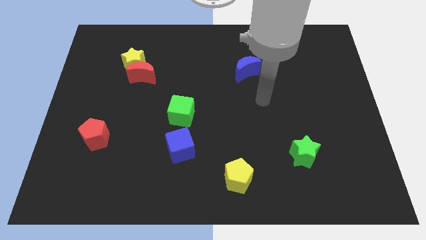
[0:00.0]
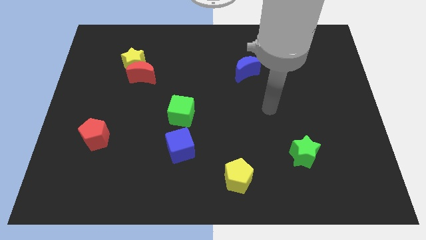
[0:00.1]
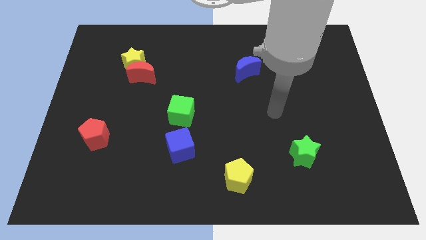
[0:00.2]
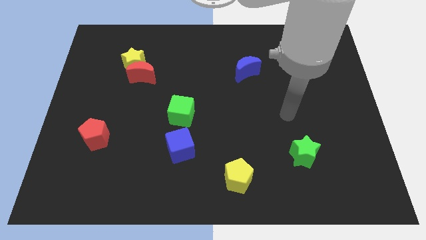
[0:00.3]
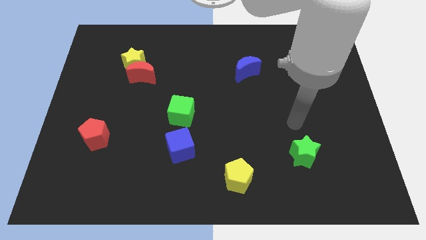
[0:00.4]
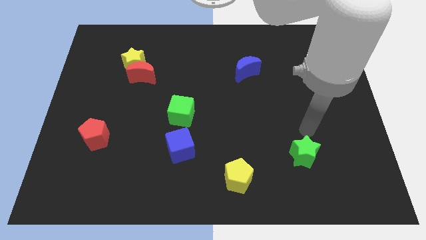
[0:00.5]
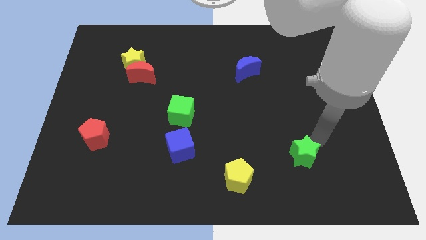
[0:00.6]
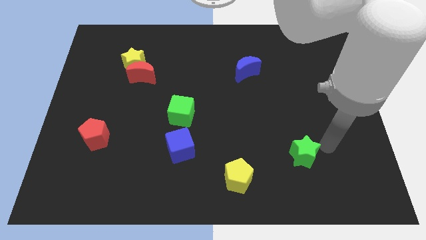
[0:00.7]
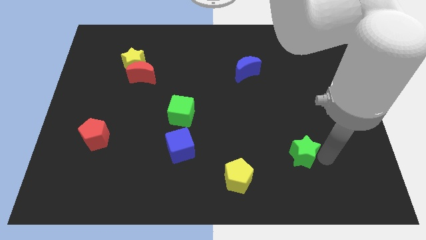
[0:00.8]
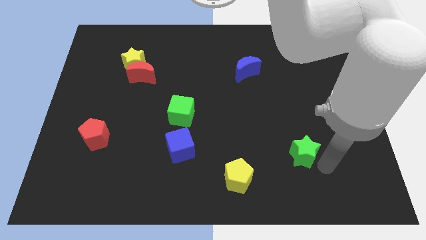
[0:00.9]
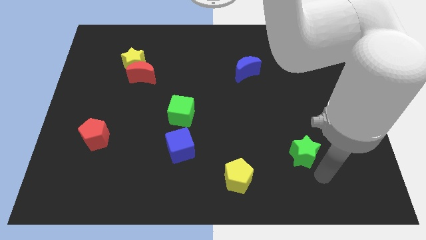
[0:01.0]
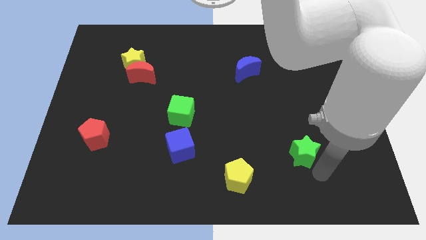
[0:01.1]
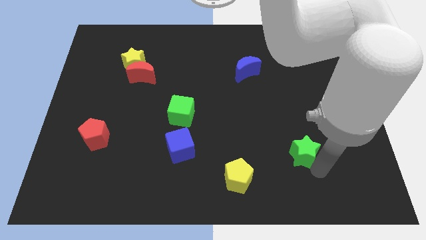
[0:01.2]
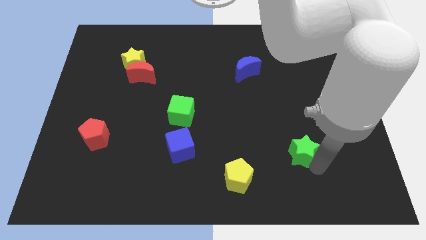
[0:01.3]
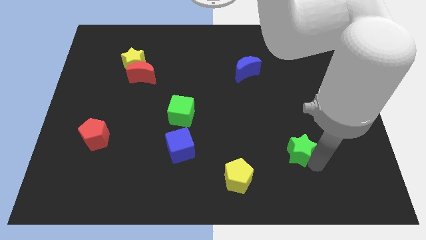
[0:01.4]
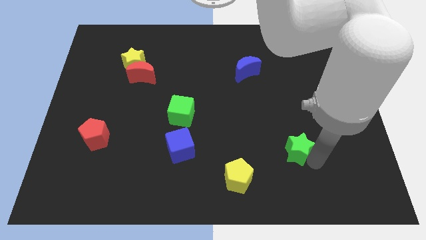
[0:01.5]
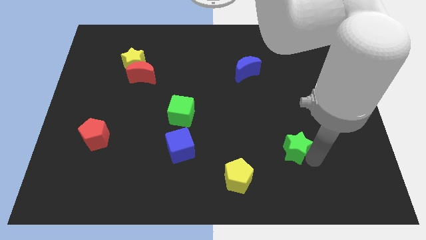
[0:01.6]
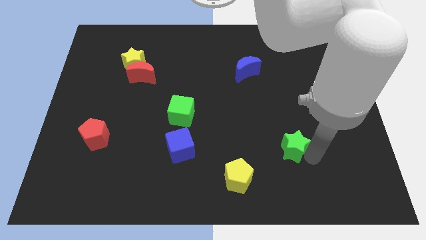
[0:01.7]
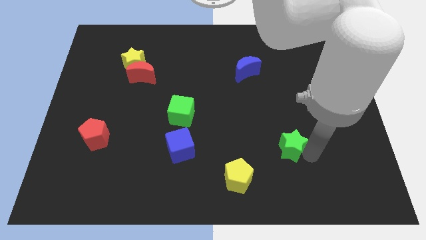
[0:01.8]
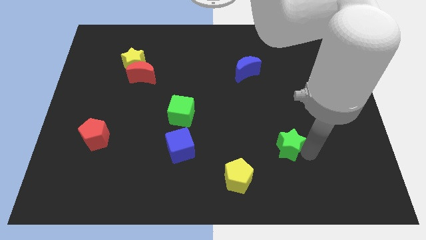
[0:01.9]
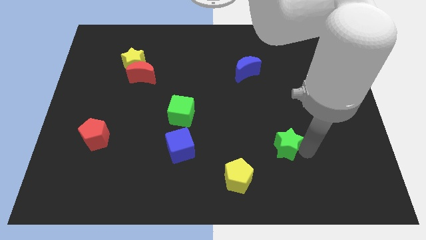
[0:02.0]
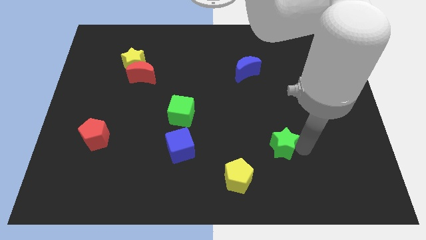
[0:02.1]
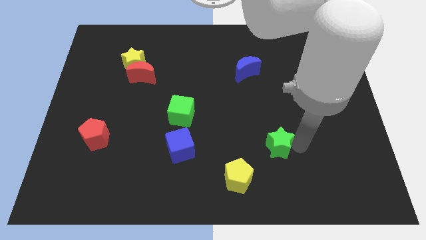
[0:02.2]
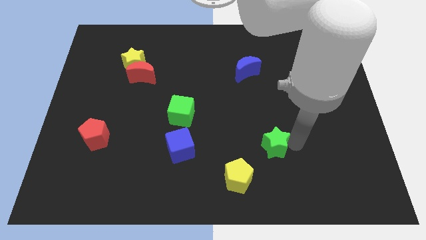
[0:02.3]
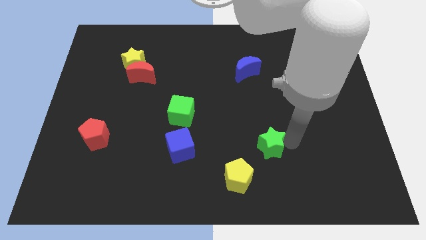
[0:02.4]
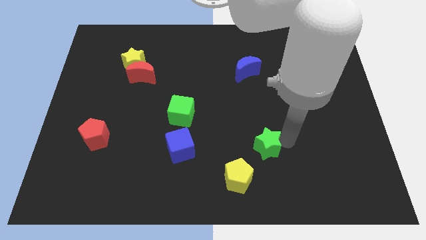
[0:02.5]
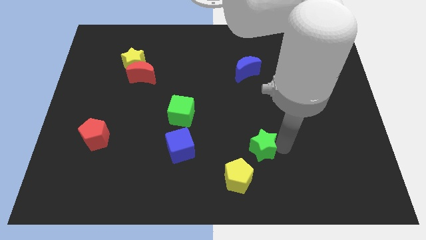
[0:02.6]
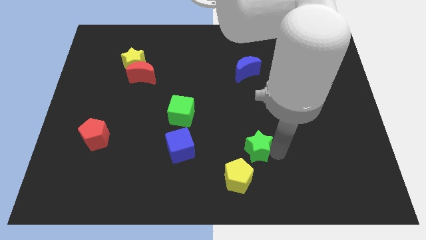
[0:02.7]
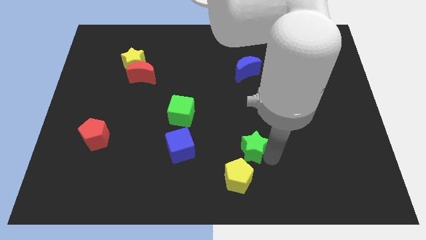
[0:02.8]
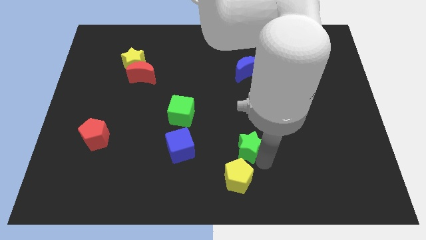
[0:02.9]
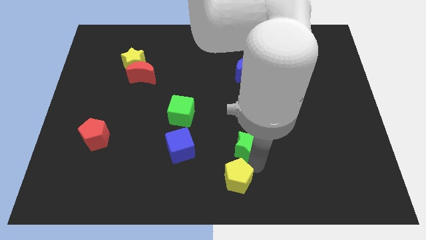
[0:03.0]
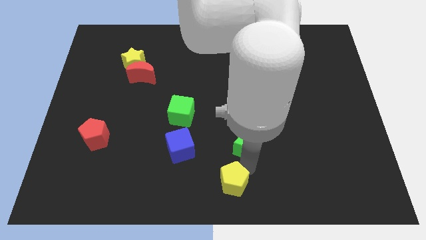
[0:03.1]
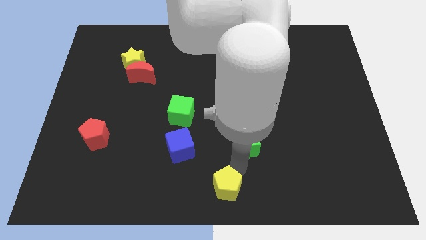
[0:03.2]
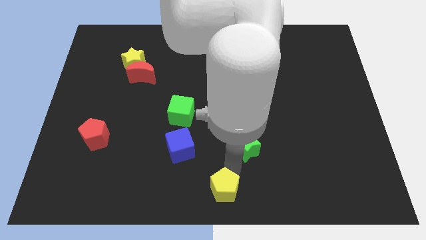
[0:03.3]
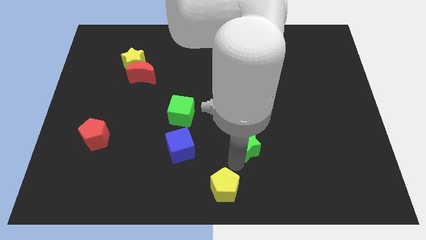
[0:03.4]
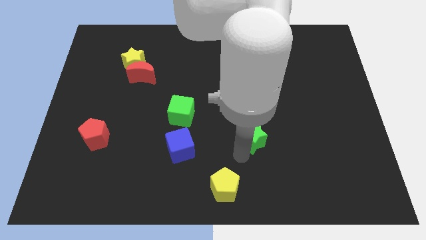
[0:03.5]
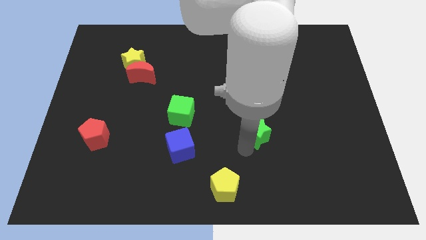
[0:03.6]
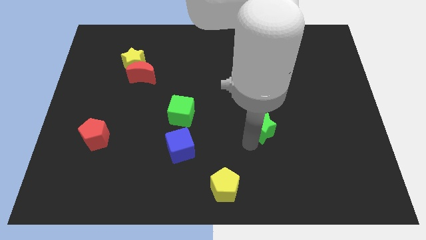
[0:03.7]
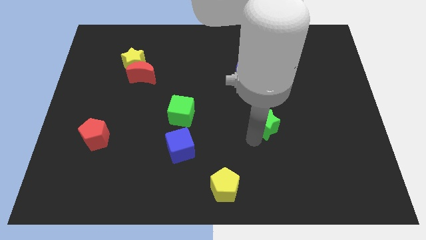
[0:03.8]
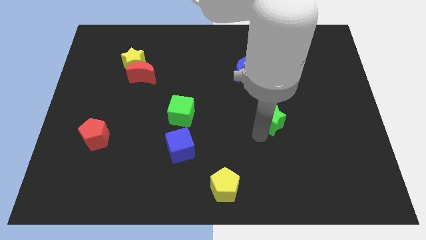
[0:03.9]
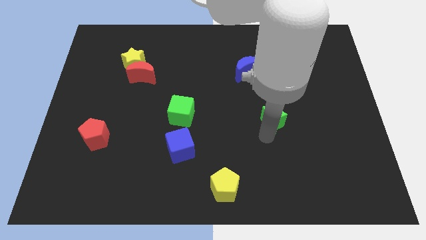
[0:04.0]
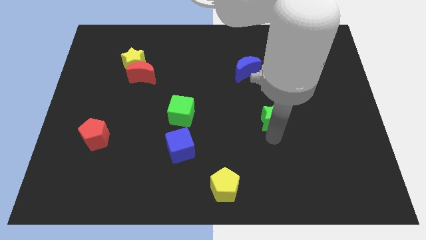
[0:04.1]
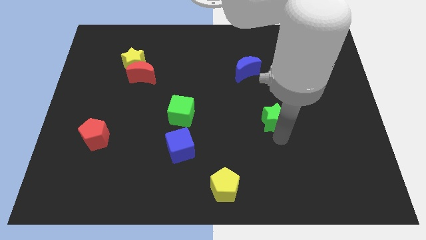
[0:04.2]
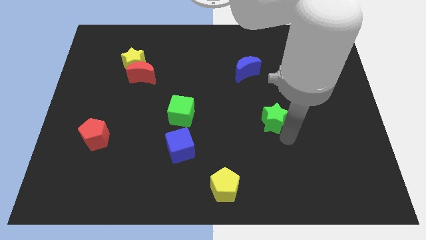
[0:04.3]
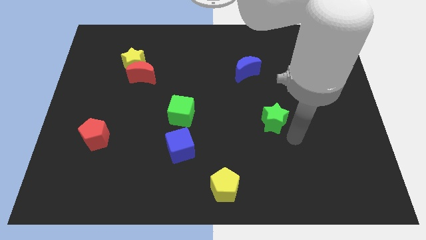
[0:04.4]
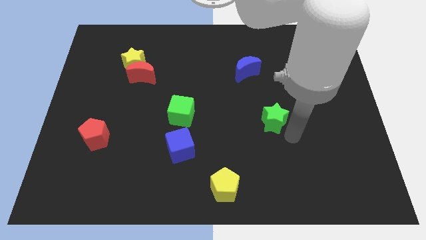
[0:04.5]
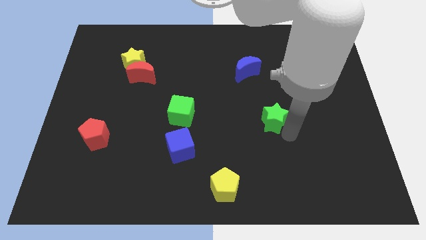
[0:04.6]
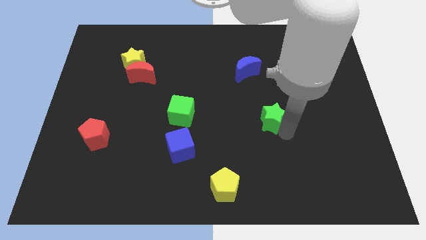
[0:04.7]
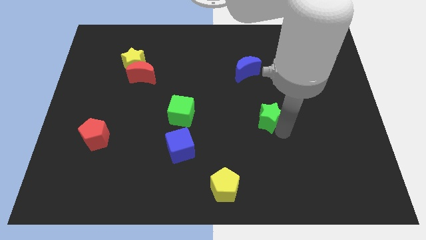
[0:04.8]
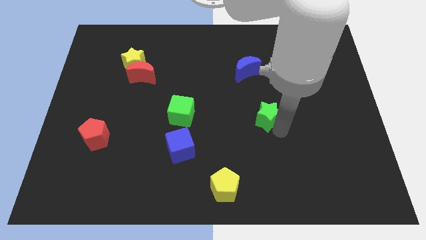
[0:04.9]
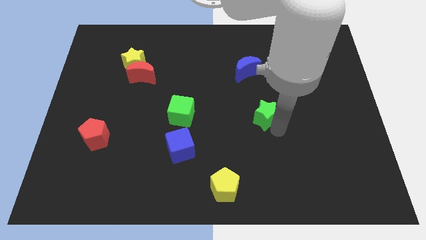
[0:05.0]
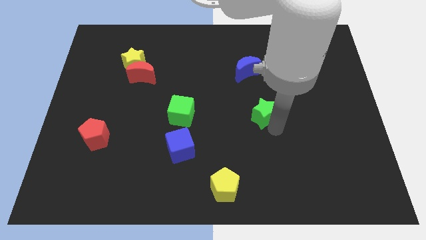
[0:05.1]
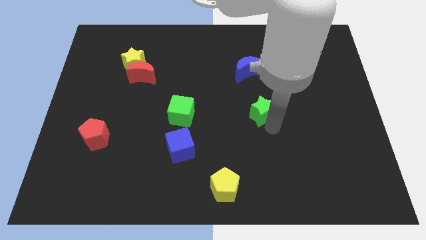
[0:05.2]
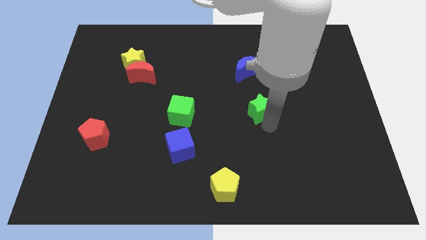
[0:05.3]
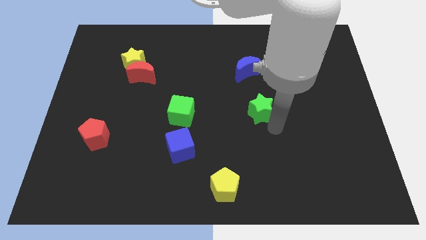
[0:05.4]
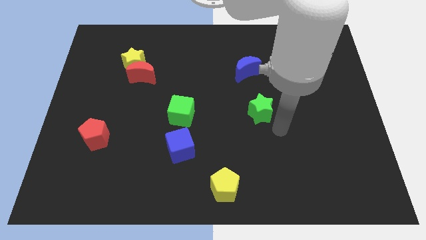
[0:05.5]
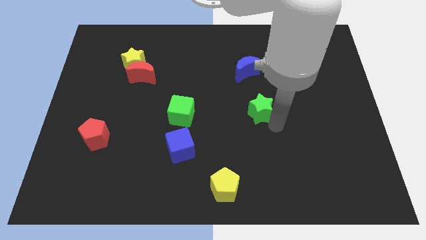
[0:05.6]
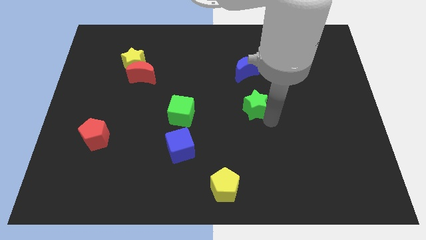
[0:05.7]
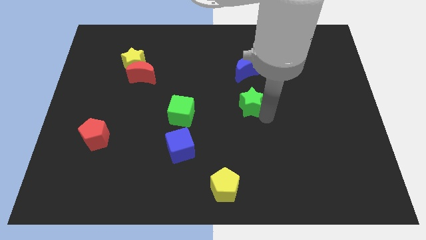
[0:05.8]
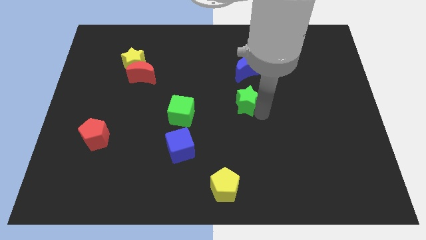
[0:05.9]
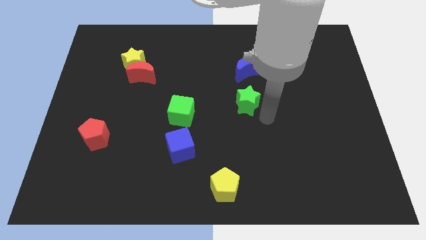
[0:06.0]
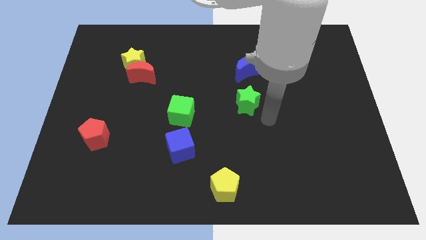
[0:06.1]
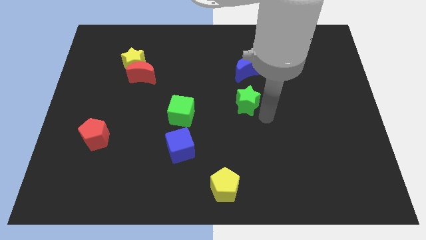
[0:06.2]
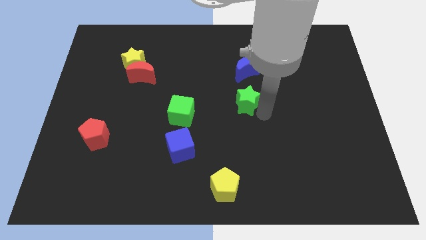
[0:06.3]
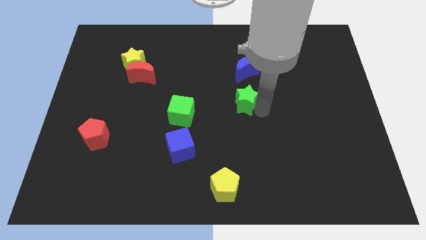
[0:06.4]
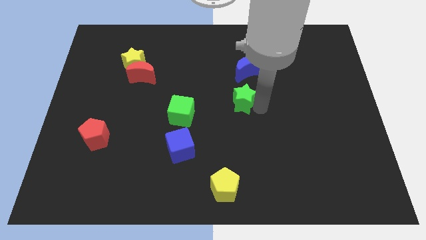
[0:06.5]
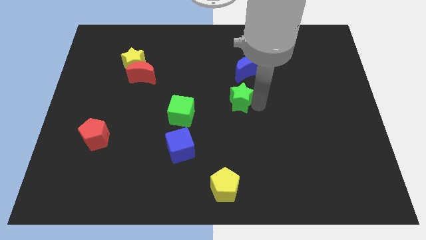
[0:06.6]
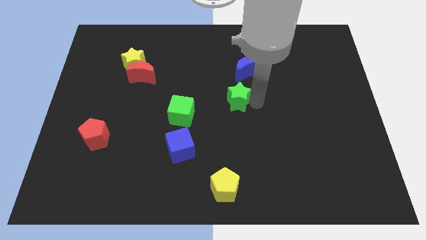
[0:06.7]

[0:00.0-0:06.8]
move the green star diagonally up and left

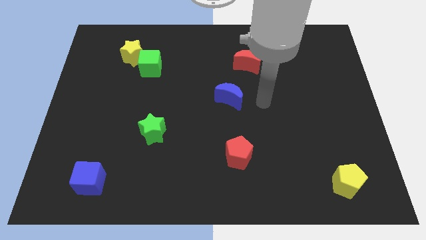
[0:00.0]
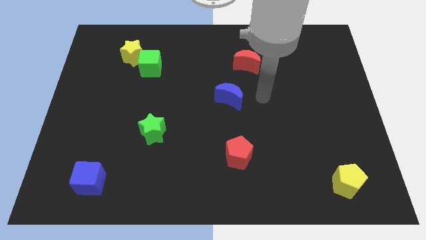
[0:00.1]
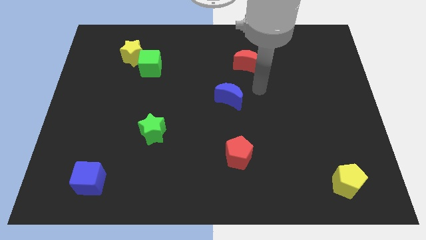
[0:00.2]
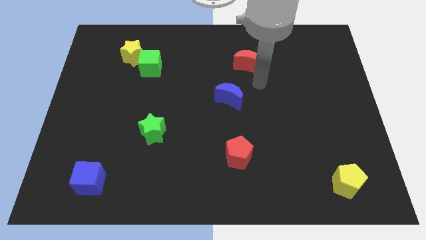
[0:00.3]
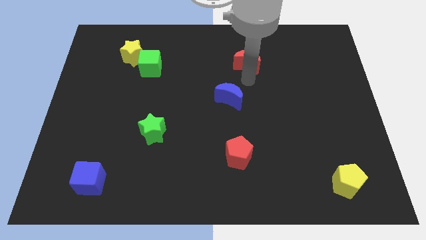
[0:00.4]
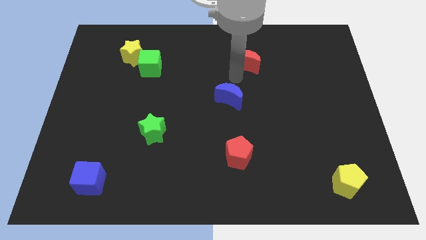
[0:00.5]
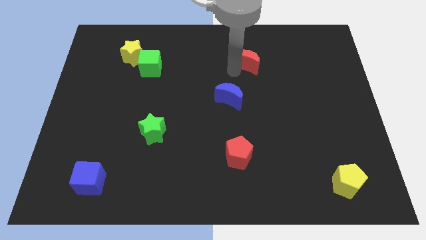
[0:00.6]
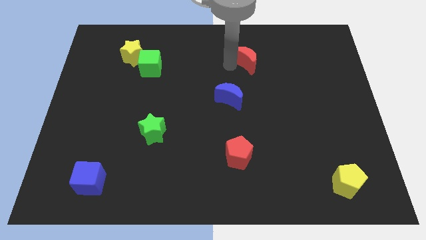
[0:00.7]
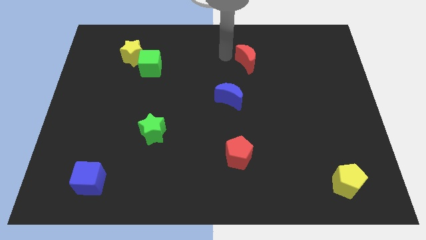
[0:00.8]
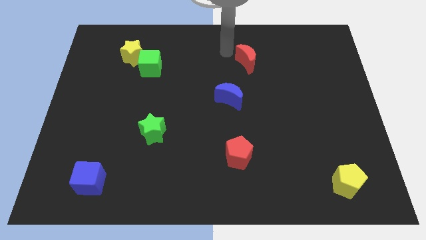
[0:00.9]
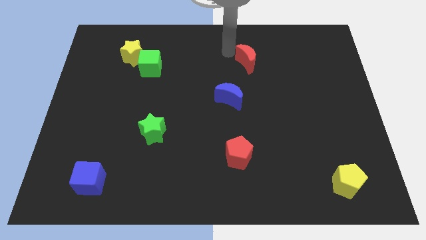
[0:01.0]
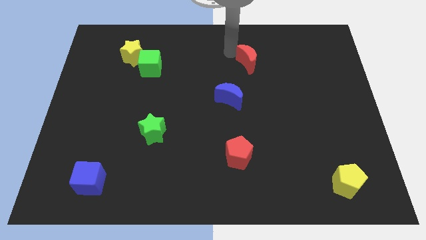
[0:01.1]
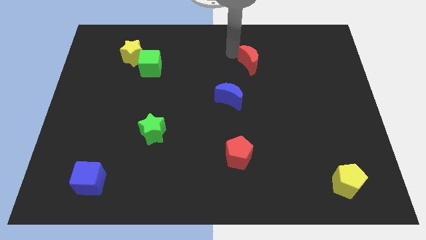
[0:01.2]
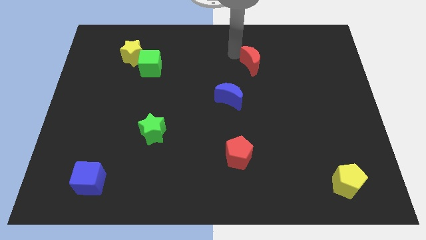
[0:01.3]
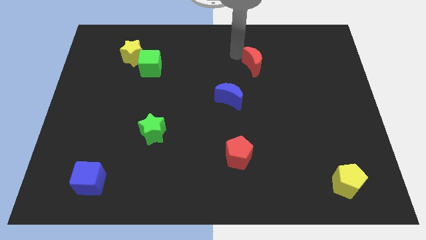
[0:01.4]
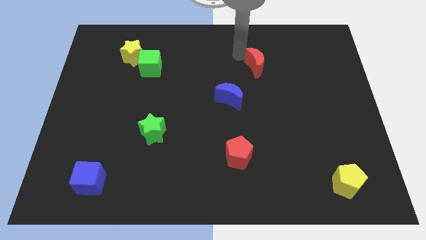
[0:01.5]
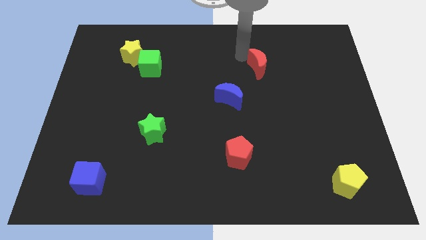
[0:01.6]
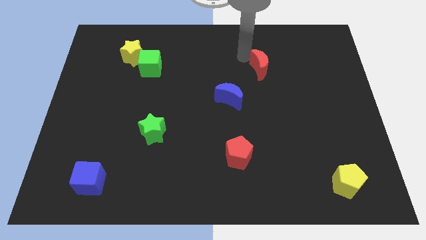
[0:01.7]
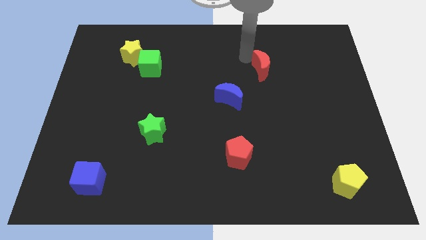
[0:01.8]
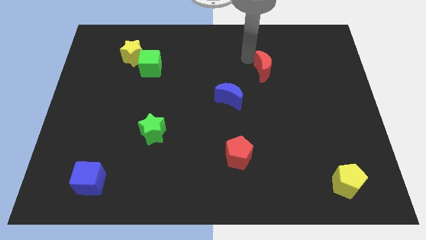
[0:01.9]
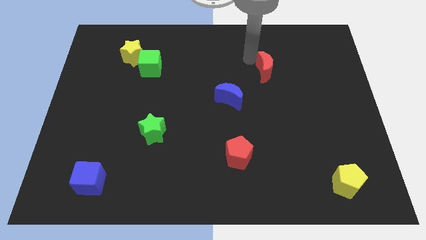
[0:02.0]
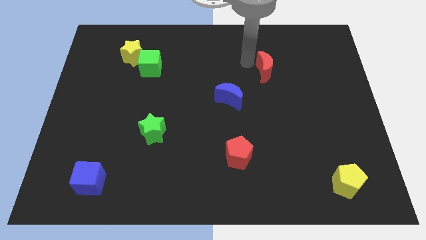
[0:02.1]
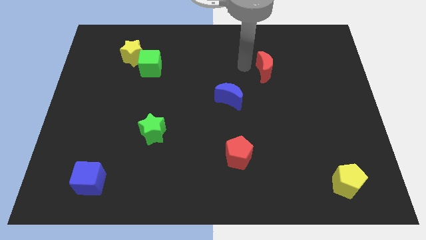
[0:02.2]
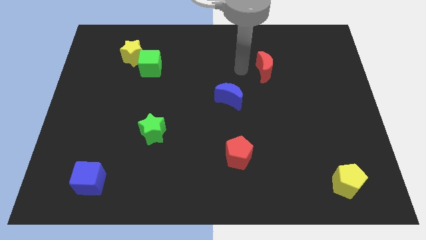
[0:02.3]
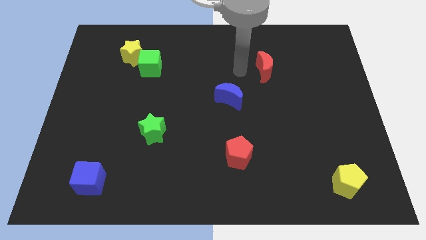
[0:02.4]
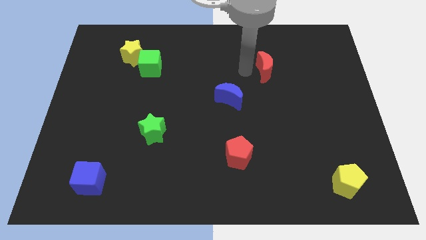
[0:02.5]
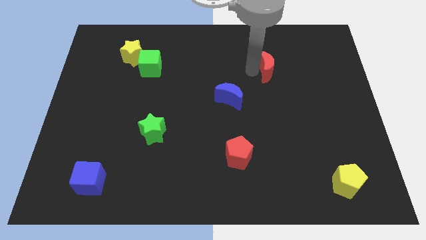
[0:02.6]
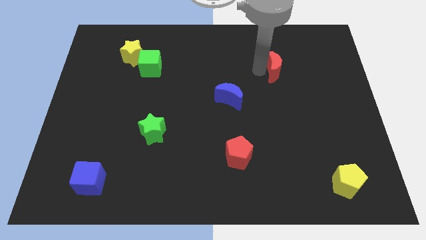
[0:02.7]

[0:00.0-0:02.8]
slightly move the red moon to the right
